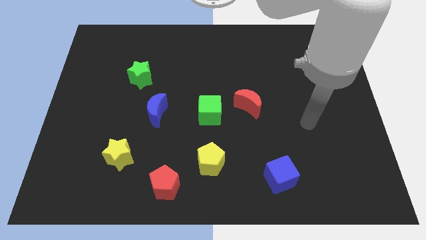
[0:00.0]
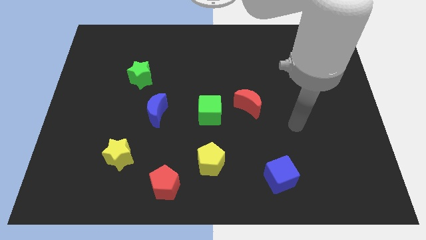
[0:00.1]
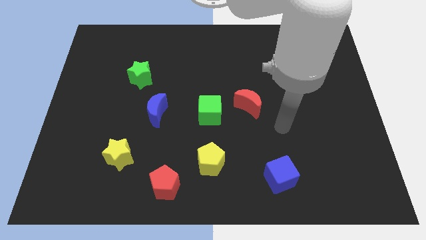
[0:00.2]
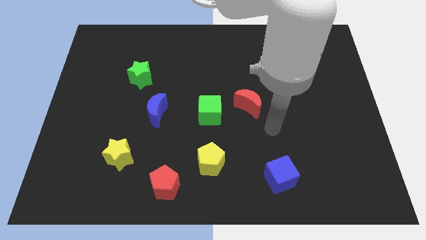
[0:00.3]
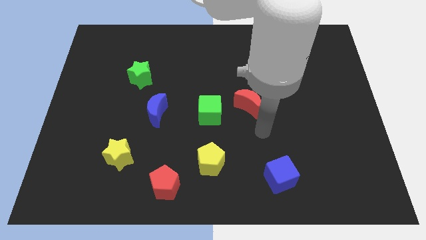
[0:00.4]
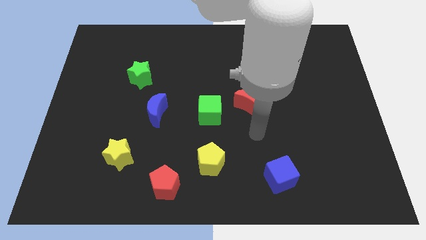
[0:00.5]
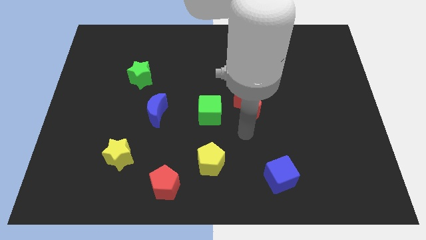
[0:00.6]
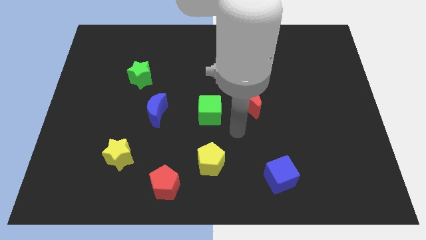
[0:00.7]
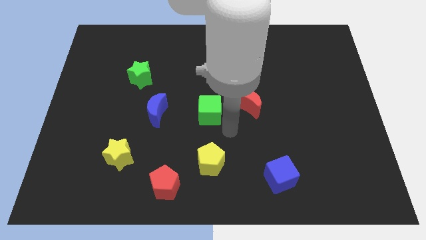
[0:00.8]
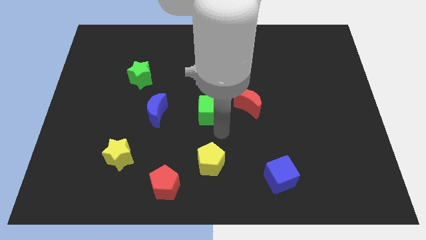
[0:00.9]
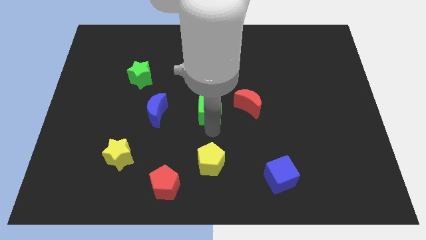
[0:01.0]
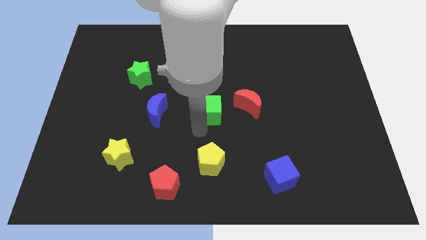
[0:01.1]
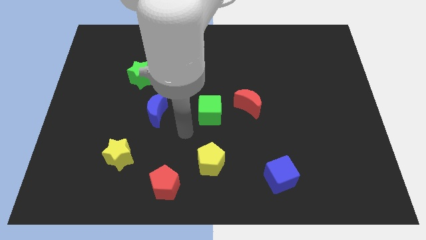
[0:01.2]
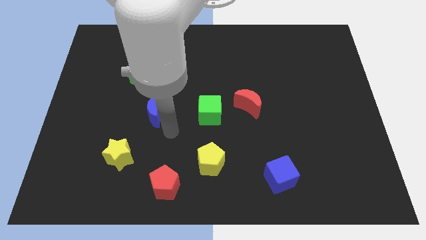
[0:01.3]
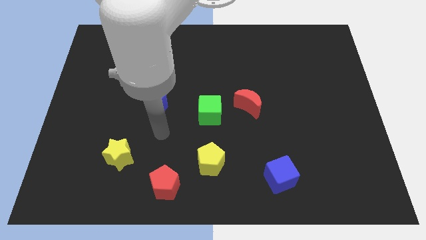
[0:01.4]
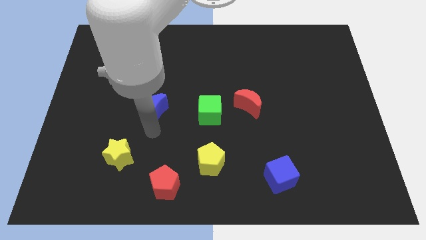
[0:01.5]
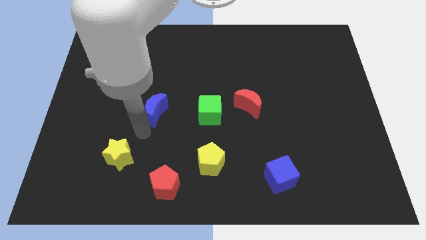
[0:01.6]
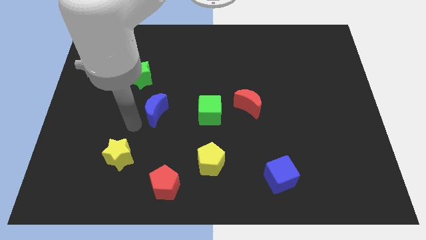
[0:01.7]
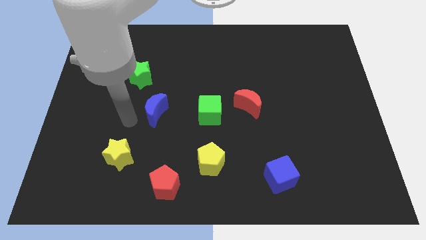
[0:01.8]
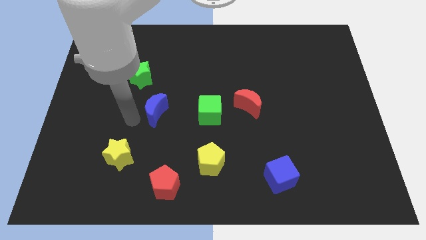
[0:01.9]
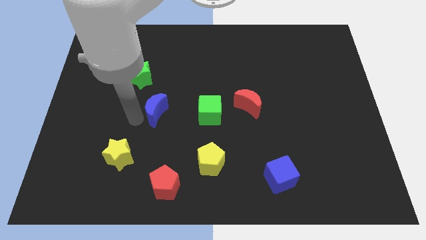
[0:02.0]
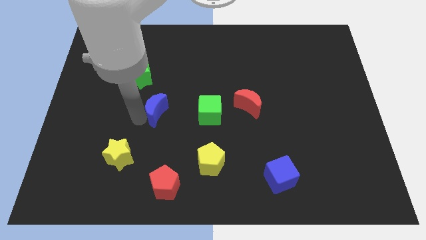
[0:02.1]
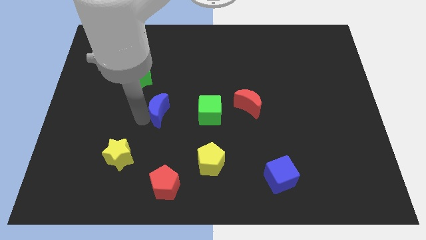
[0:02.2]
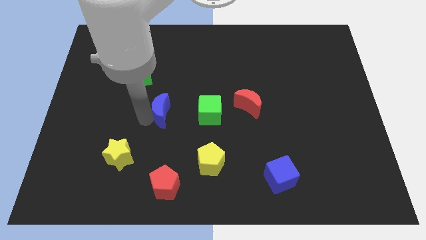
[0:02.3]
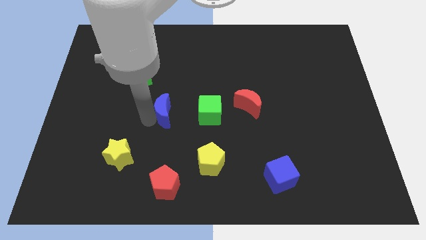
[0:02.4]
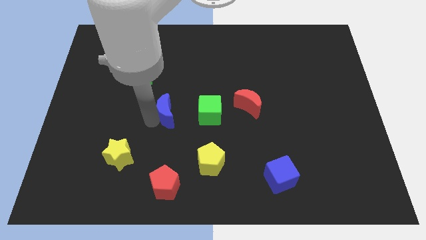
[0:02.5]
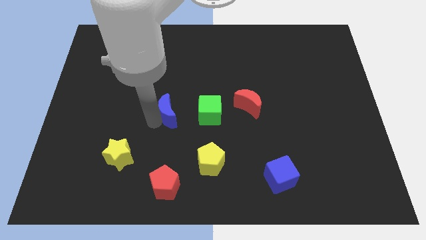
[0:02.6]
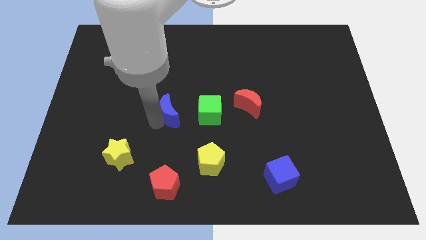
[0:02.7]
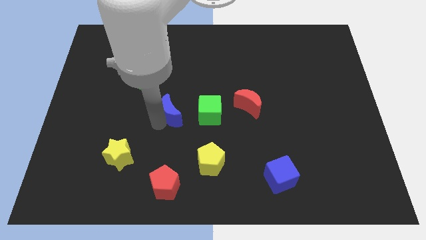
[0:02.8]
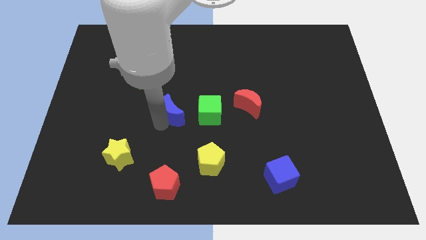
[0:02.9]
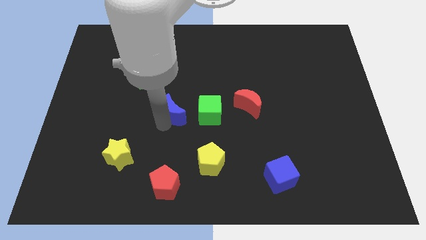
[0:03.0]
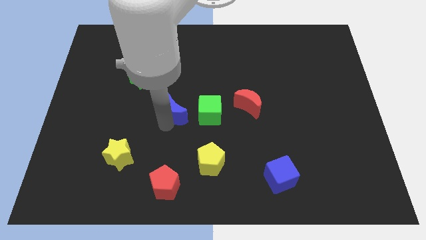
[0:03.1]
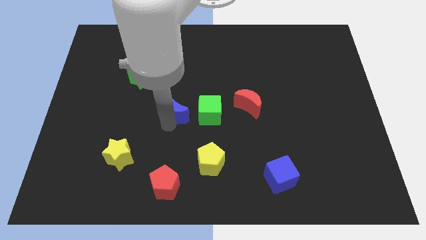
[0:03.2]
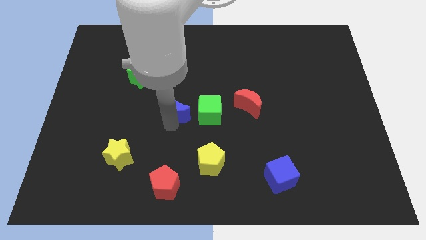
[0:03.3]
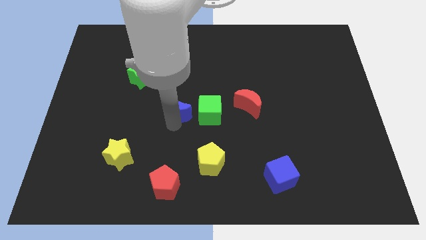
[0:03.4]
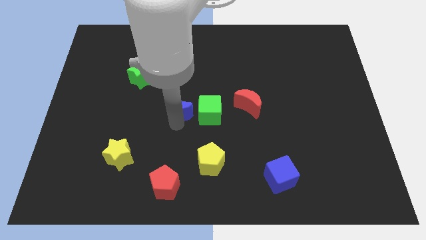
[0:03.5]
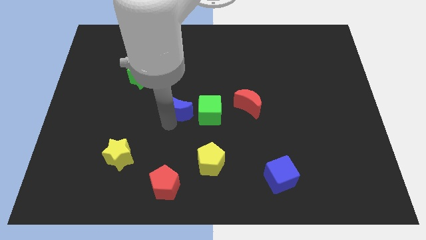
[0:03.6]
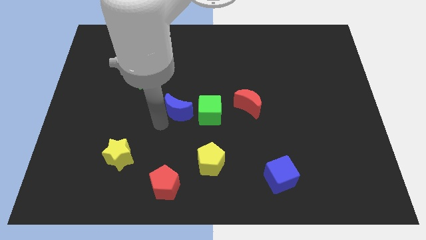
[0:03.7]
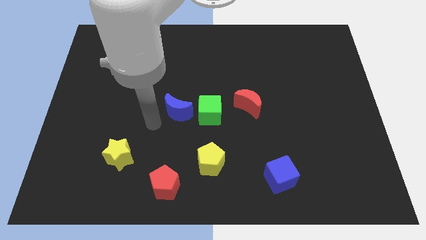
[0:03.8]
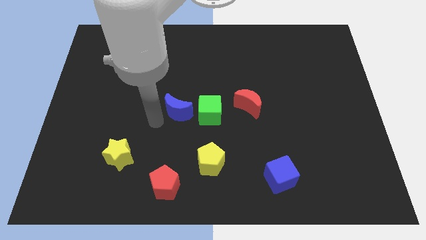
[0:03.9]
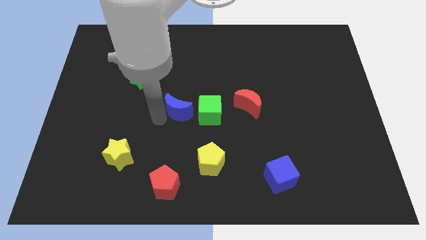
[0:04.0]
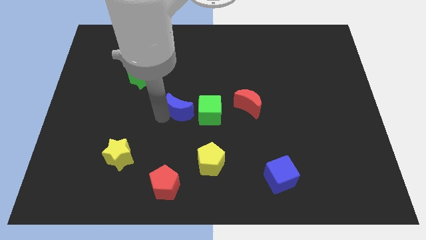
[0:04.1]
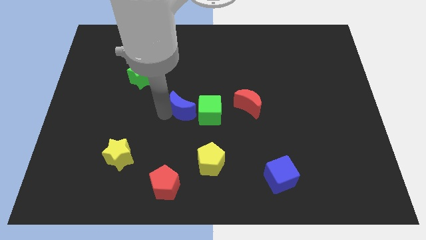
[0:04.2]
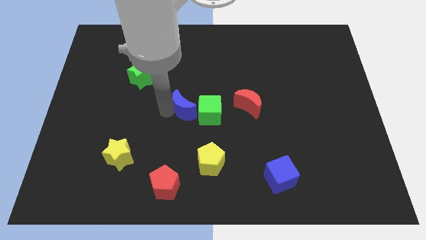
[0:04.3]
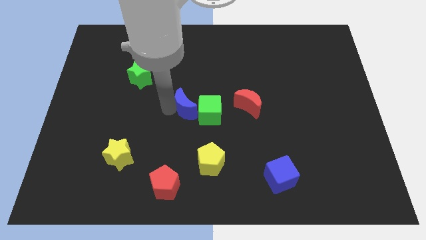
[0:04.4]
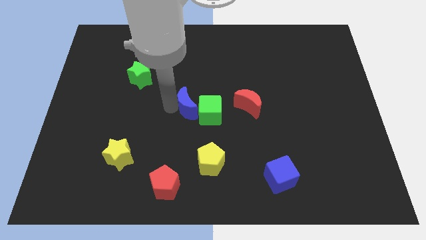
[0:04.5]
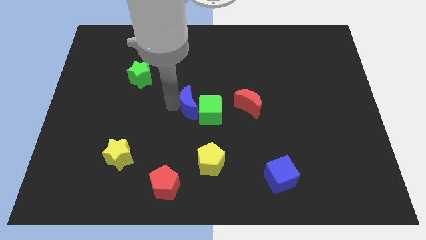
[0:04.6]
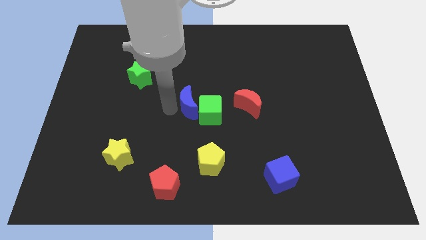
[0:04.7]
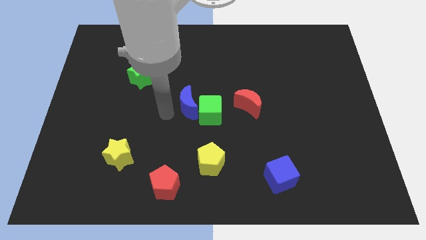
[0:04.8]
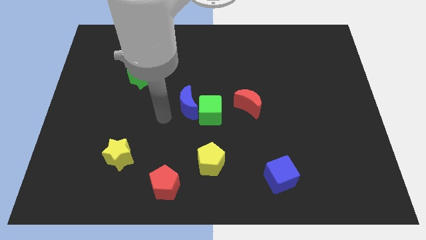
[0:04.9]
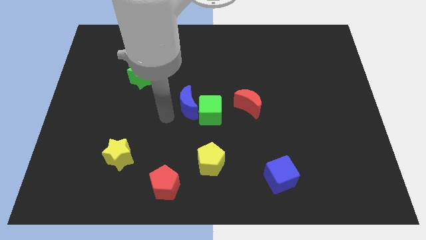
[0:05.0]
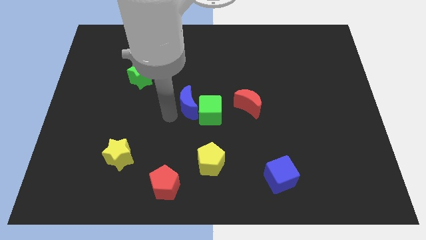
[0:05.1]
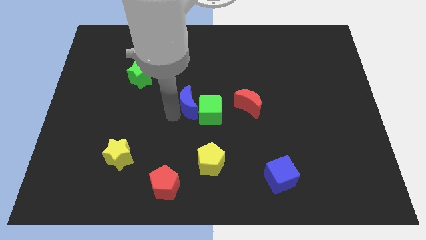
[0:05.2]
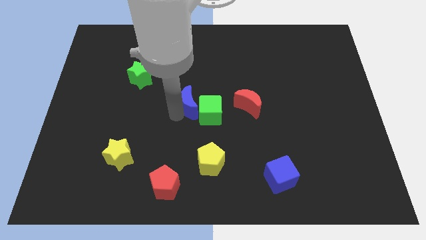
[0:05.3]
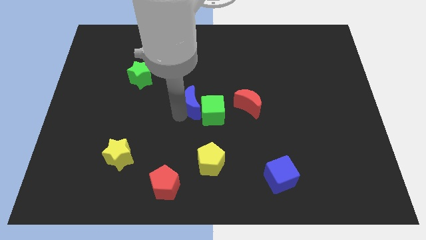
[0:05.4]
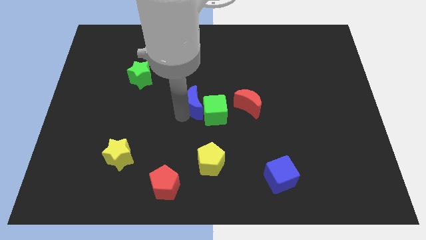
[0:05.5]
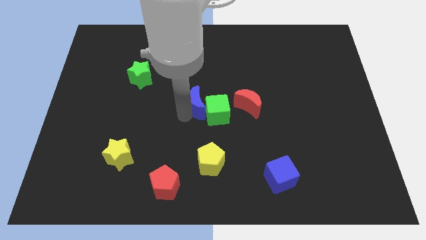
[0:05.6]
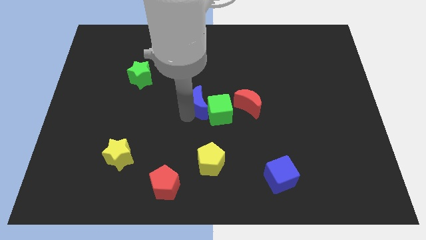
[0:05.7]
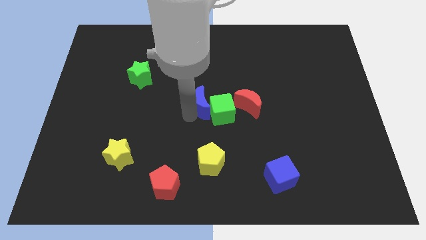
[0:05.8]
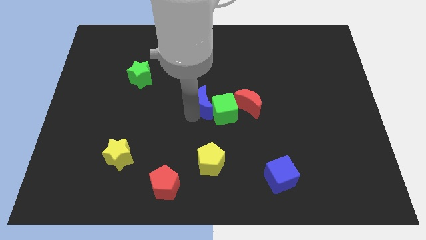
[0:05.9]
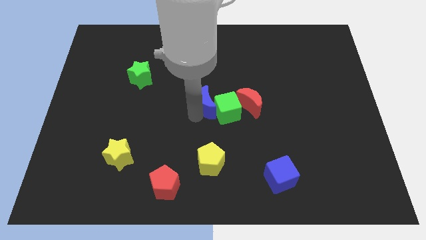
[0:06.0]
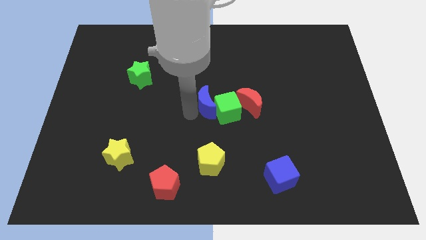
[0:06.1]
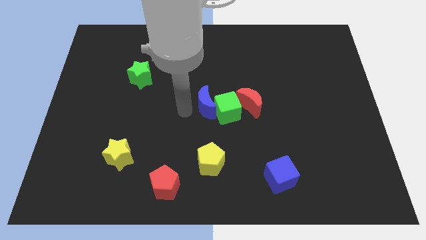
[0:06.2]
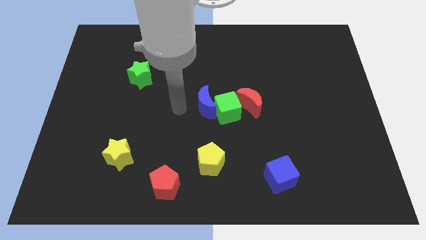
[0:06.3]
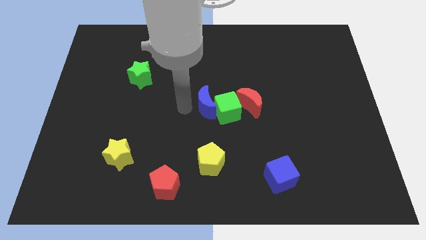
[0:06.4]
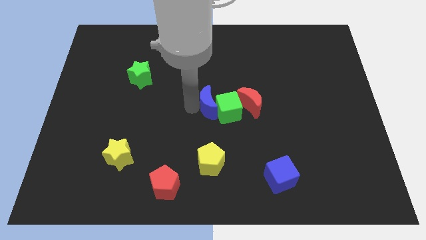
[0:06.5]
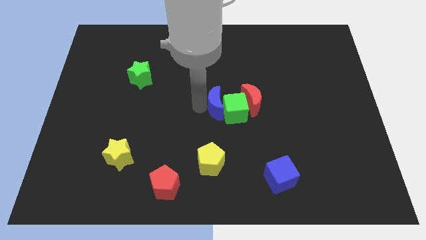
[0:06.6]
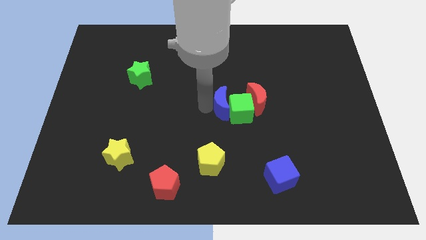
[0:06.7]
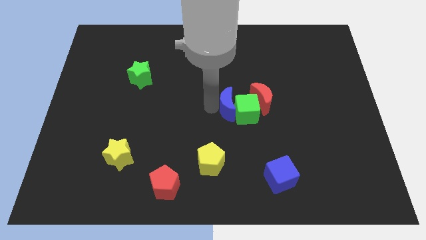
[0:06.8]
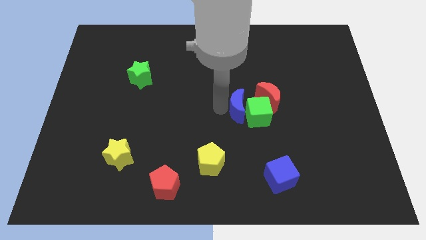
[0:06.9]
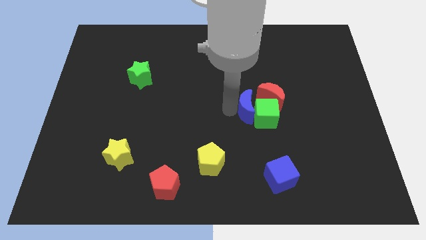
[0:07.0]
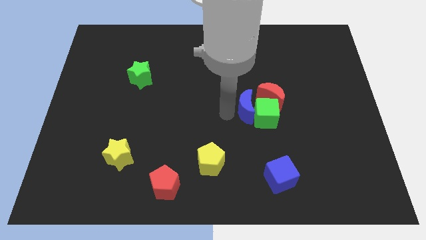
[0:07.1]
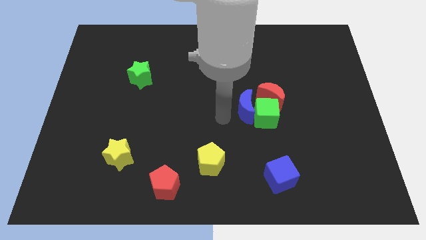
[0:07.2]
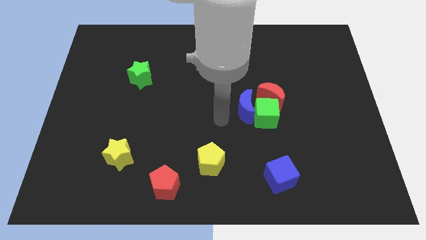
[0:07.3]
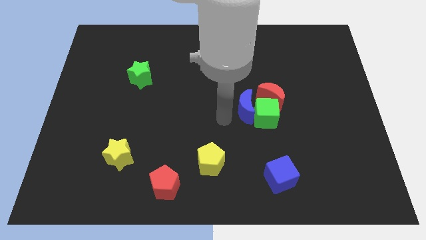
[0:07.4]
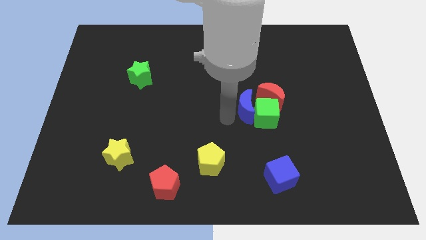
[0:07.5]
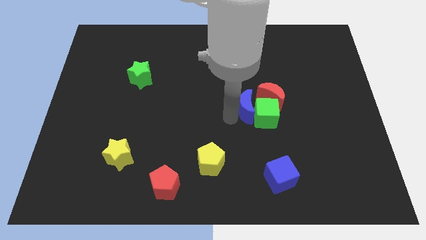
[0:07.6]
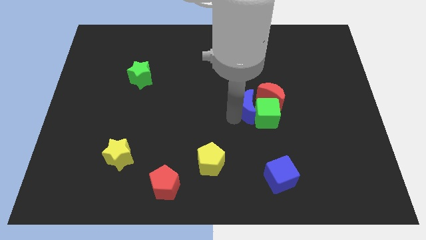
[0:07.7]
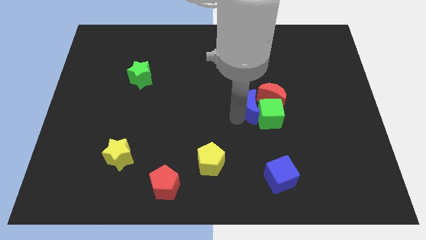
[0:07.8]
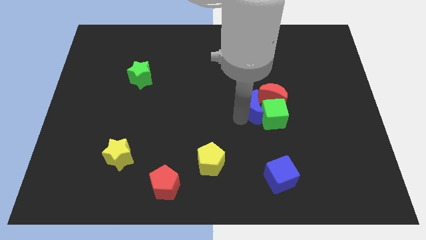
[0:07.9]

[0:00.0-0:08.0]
push the blue moon close to the red moon
